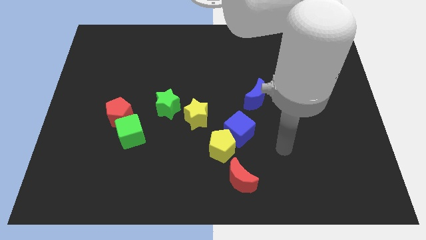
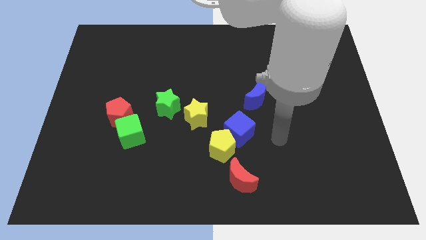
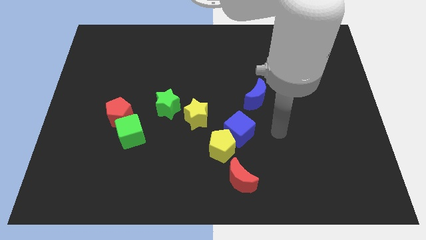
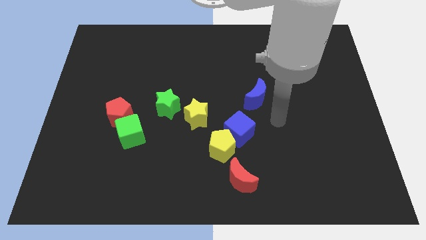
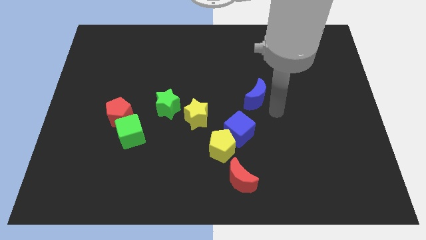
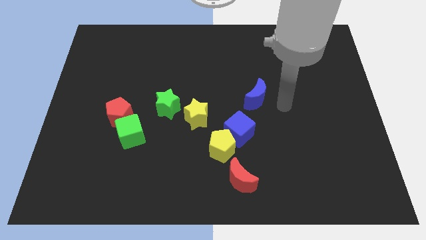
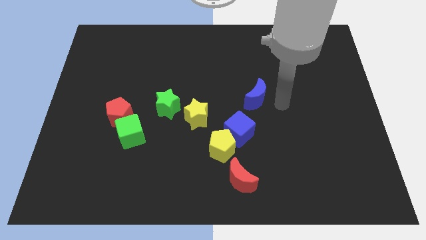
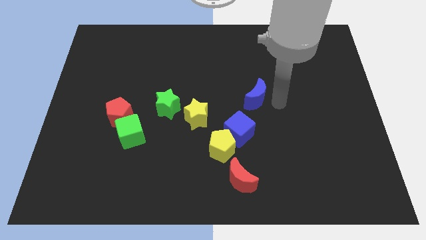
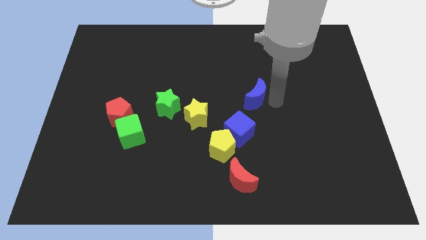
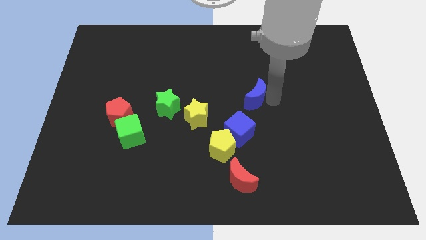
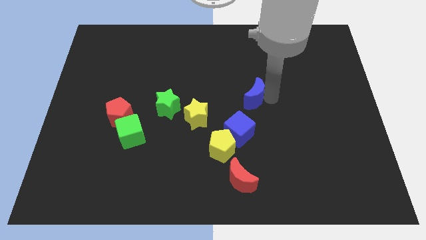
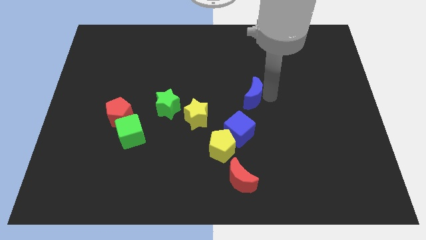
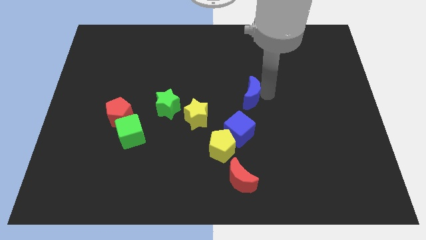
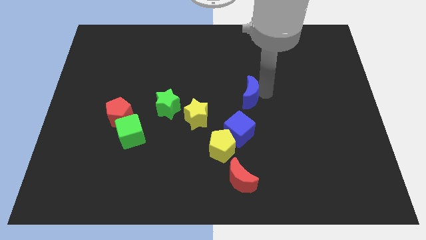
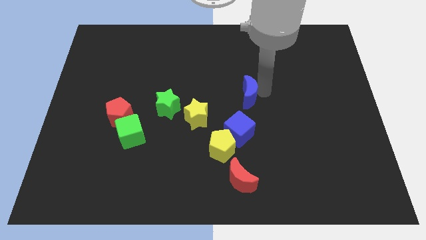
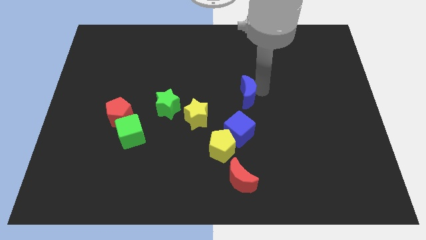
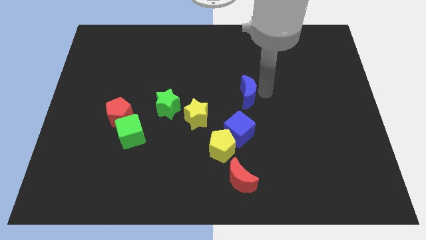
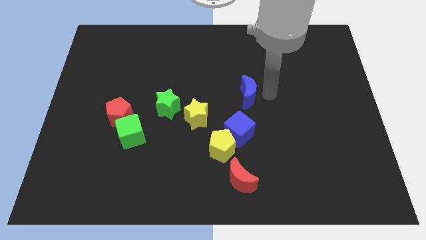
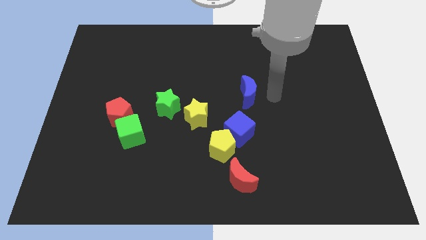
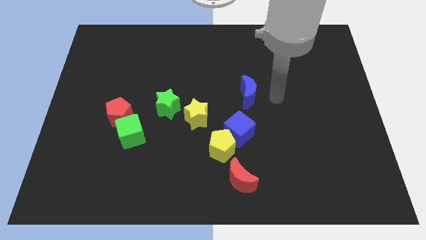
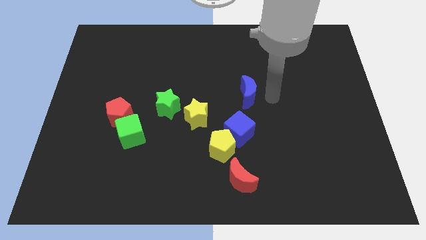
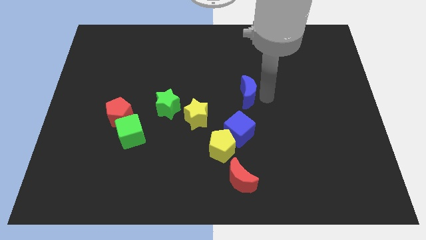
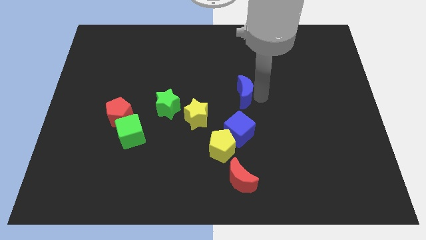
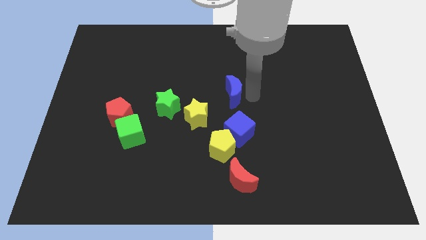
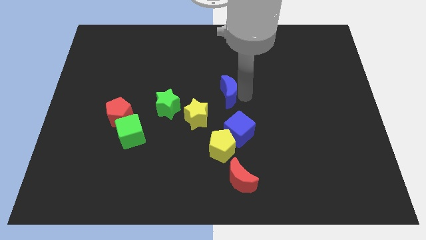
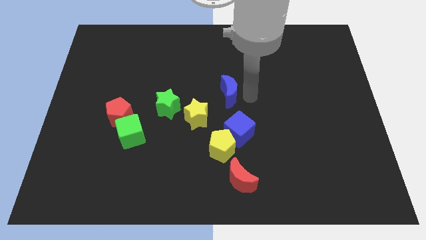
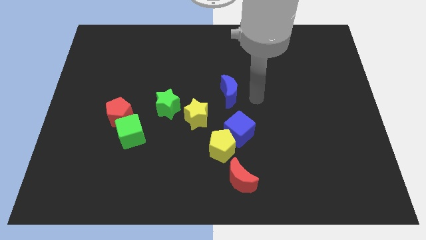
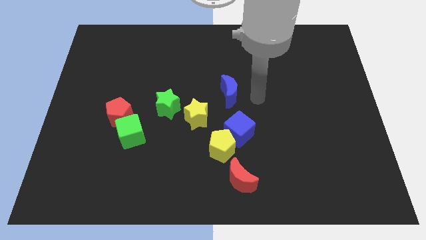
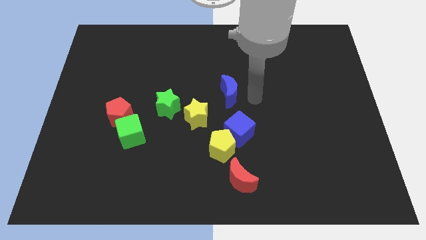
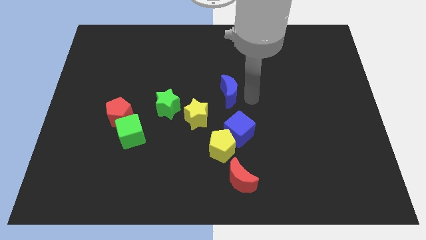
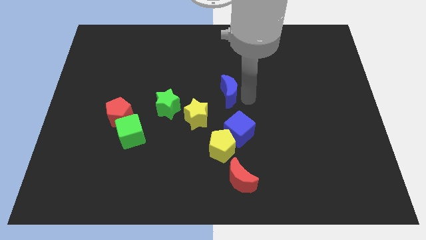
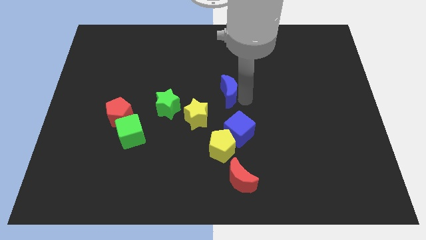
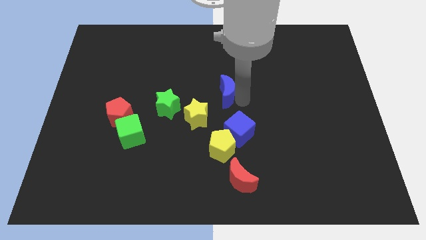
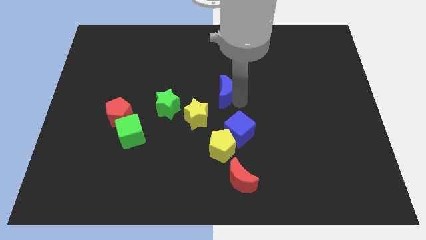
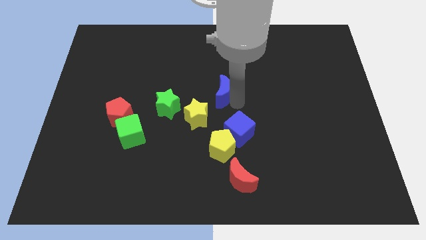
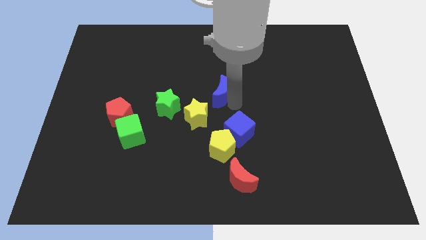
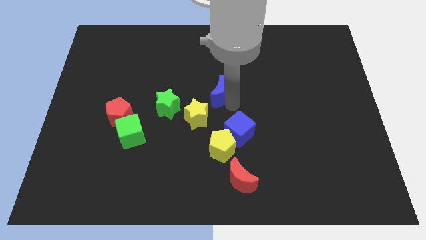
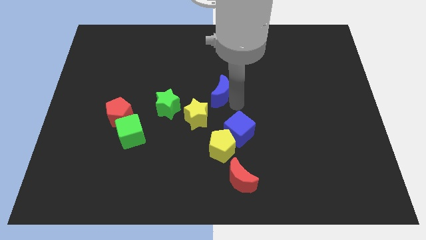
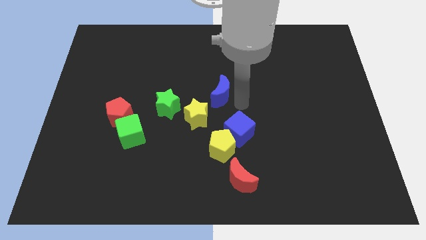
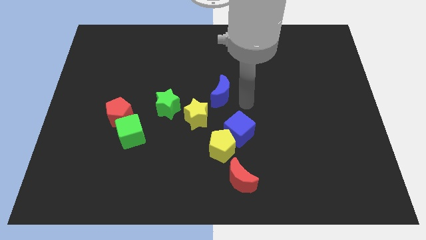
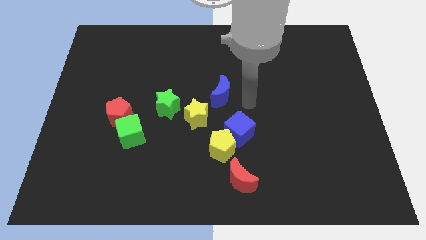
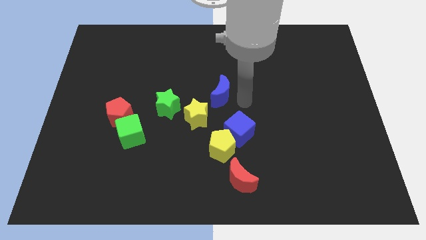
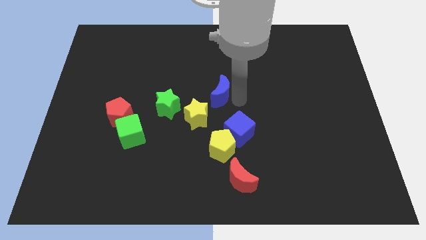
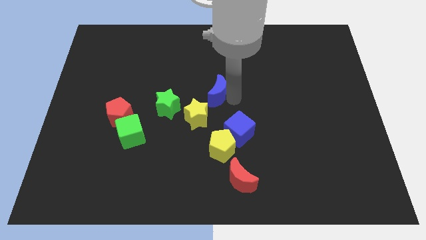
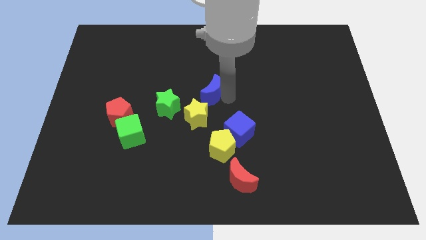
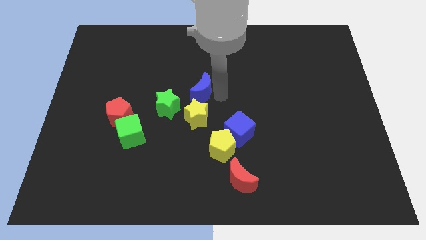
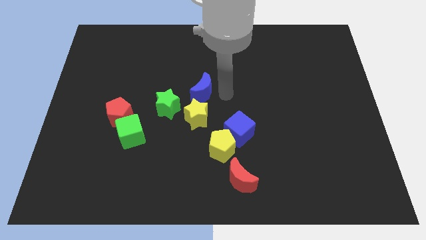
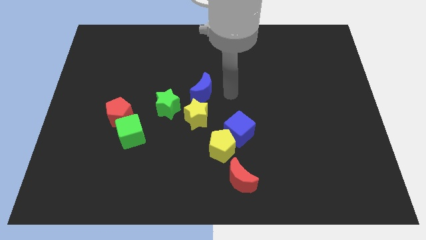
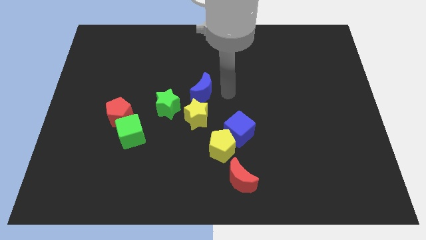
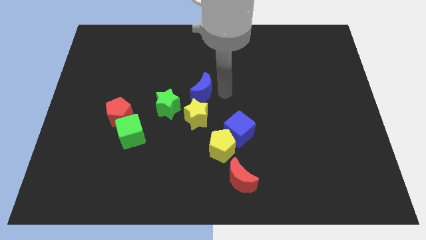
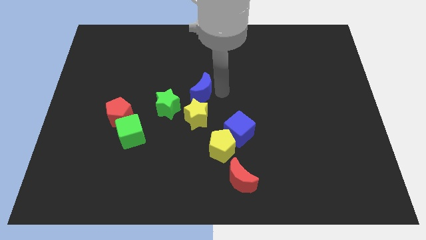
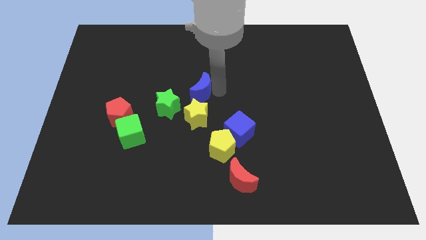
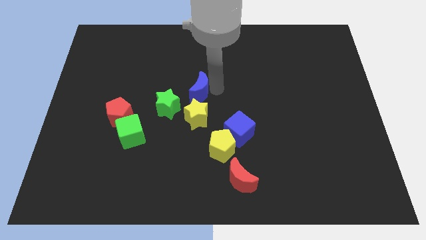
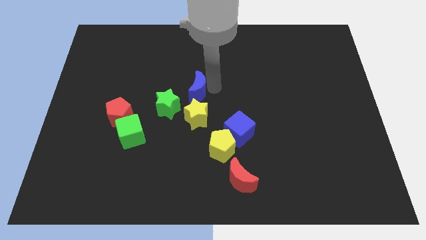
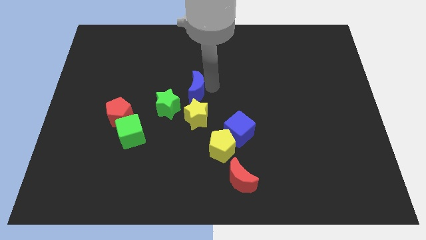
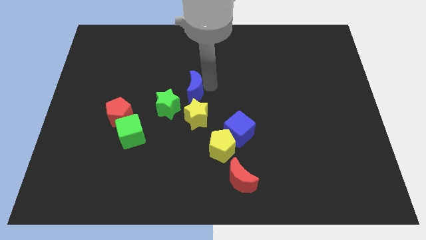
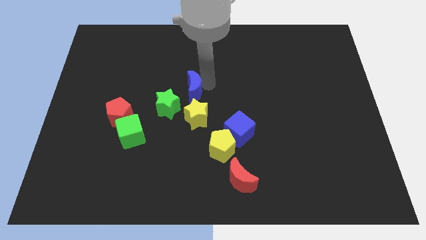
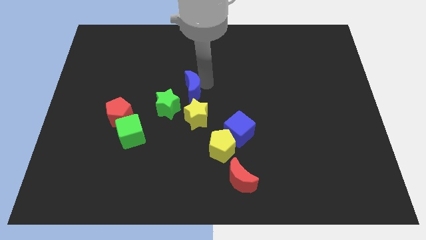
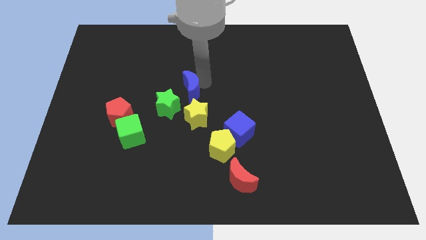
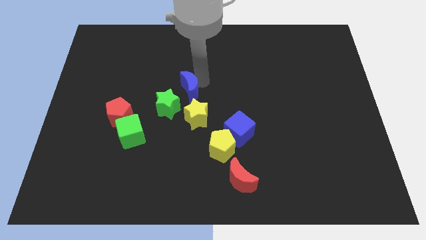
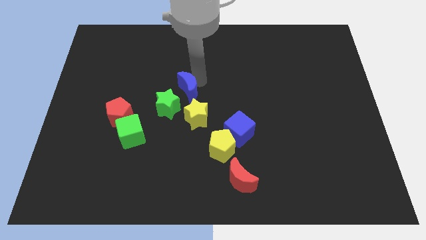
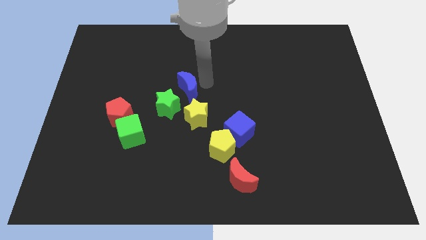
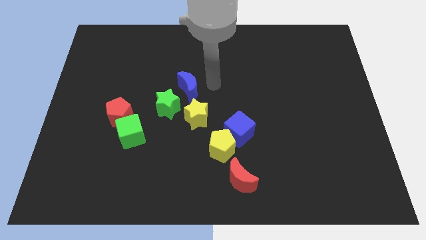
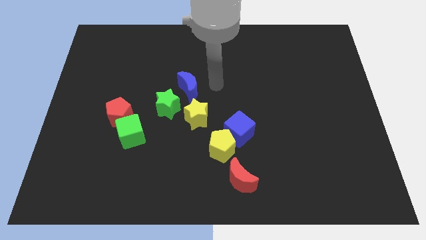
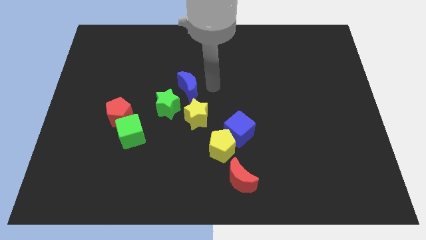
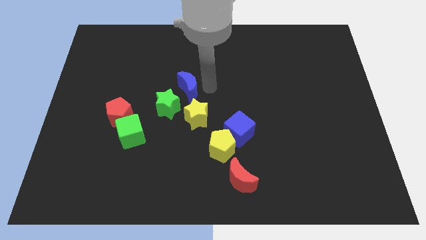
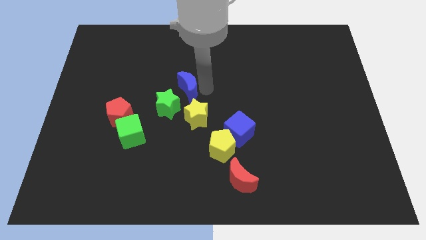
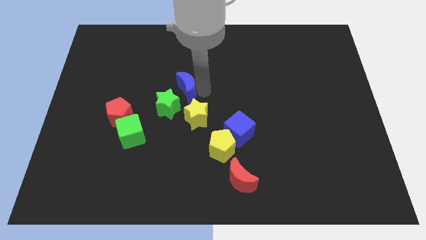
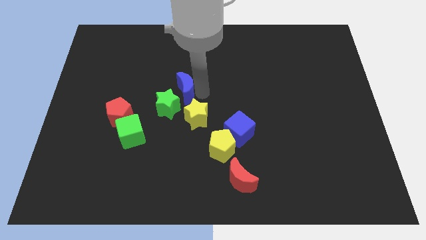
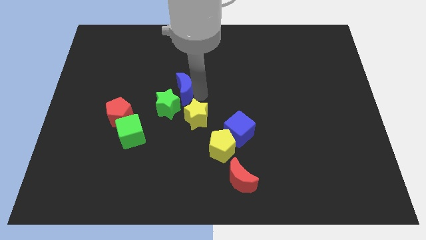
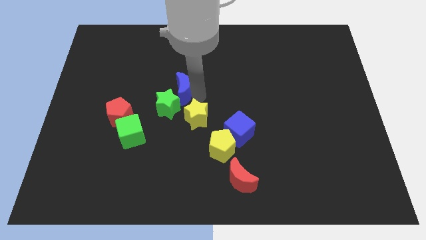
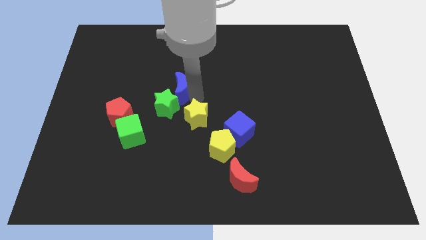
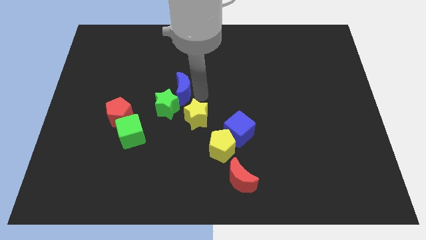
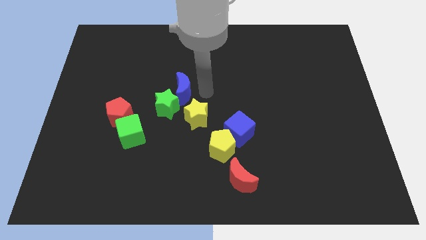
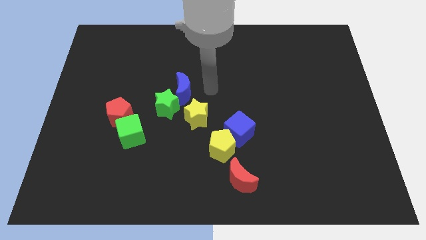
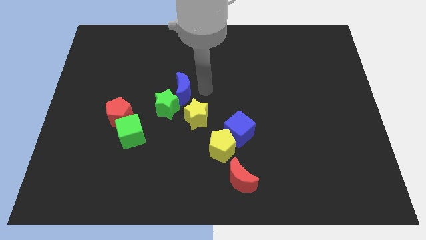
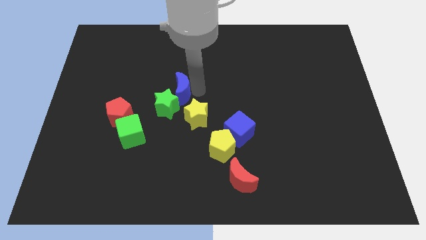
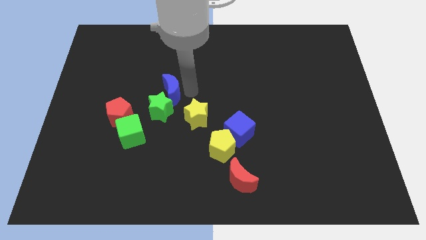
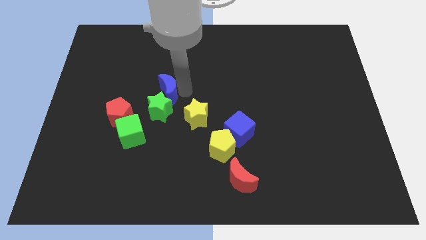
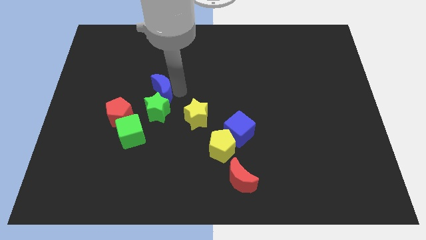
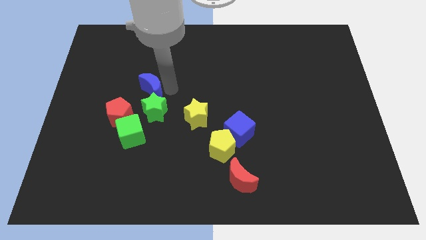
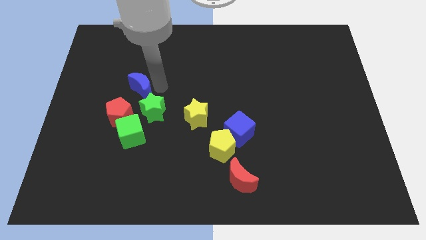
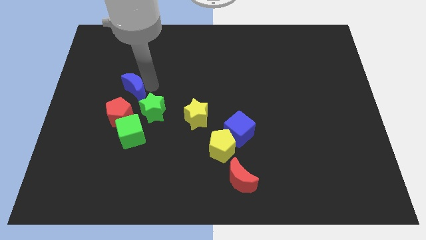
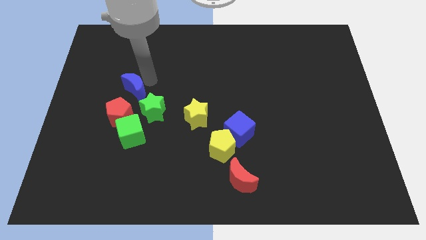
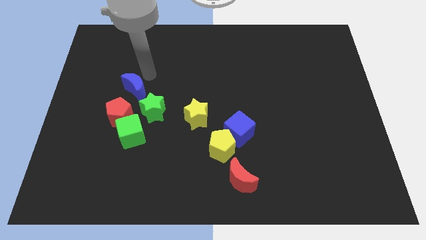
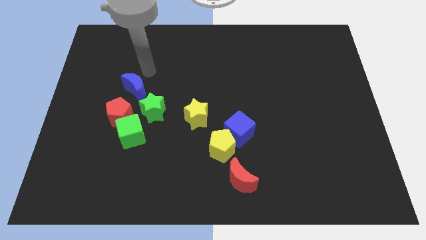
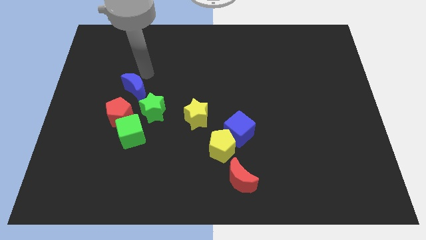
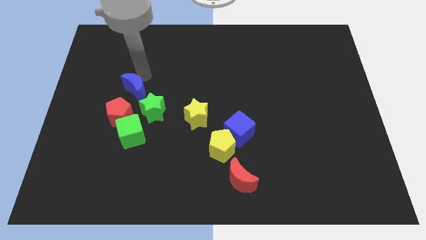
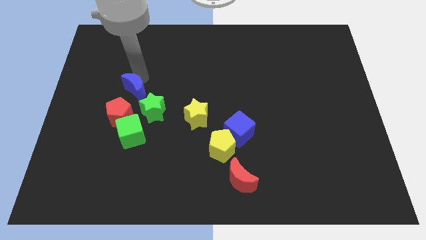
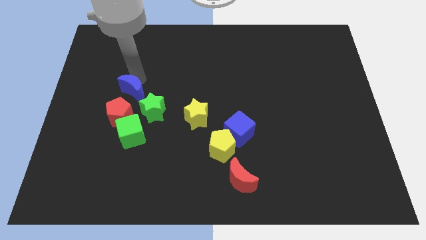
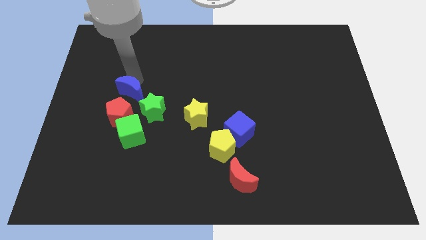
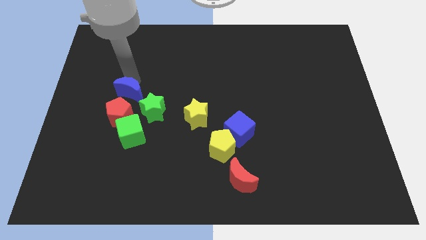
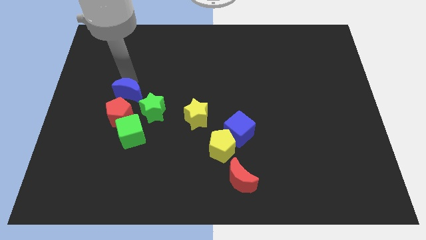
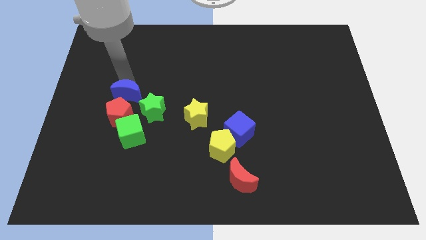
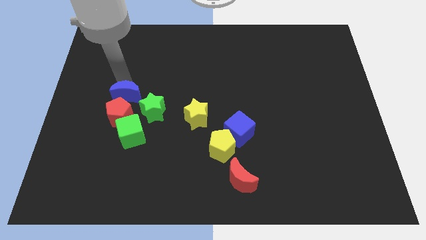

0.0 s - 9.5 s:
slide the blue moon to the red pentagon
